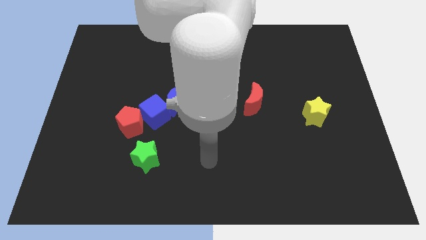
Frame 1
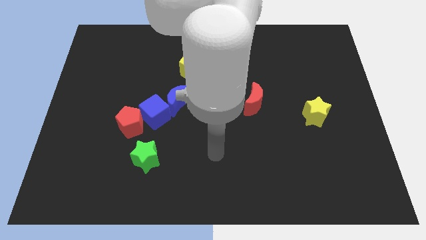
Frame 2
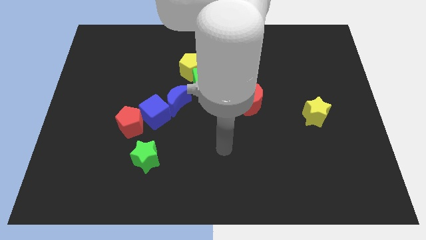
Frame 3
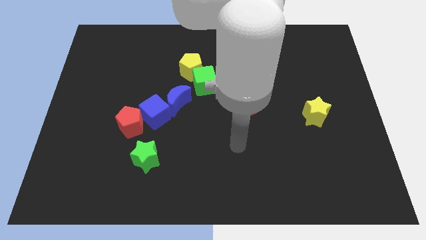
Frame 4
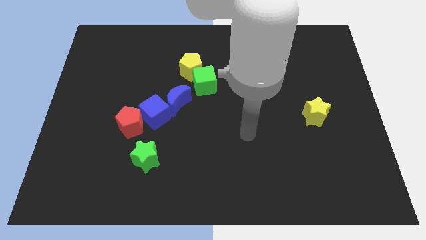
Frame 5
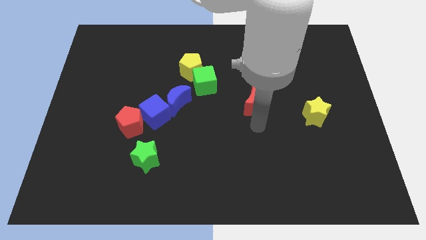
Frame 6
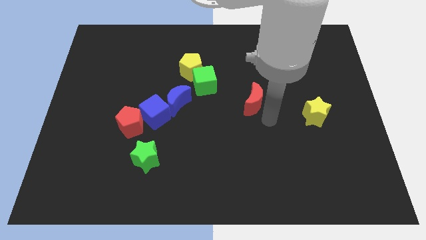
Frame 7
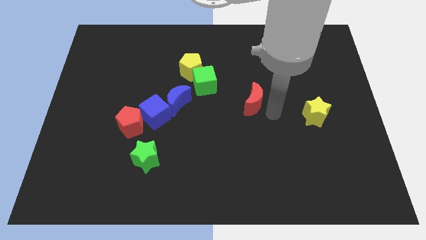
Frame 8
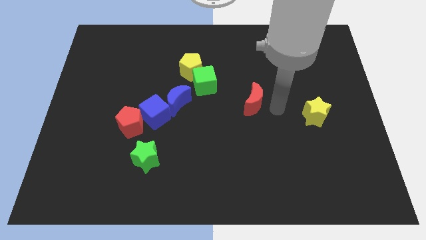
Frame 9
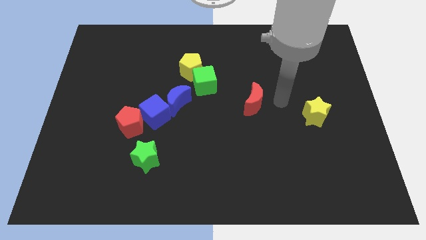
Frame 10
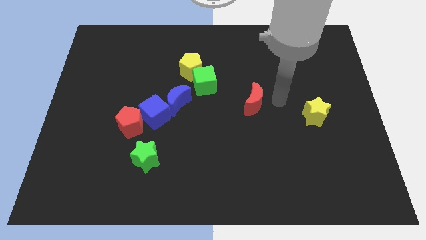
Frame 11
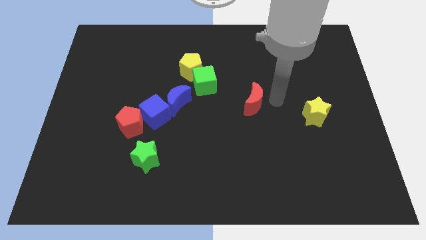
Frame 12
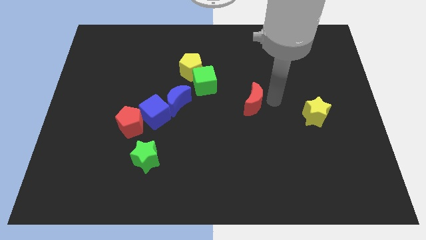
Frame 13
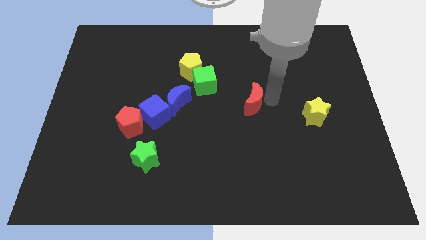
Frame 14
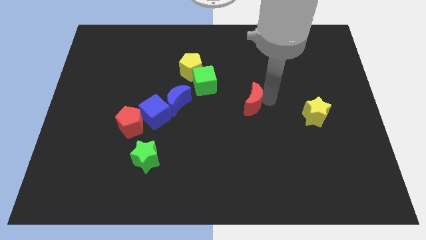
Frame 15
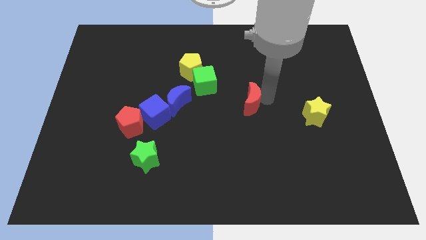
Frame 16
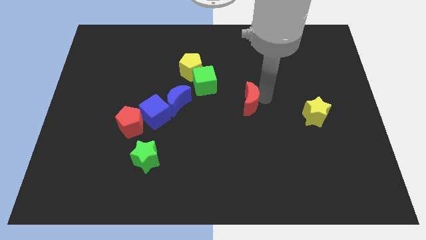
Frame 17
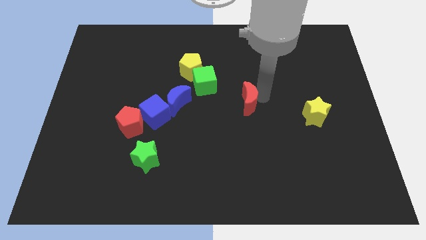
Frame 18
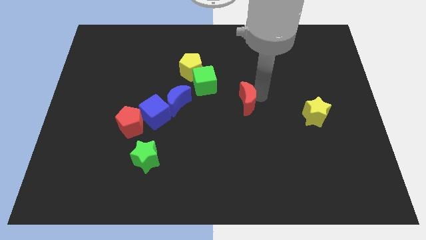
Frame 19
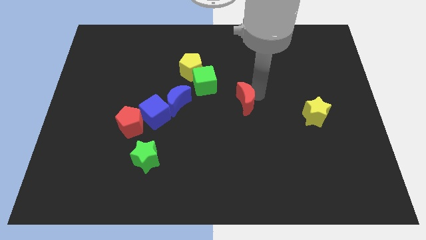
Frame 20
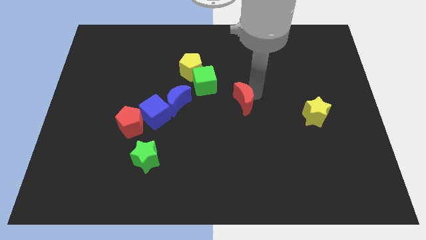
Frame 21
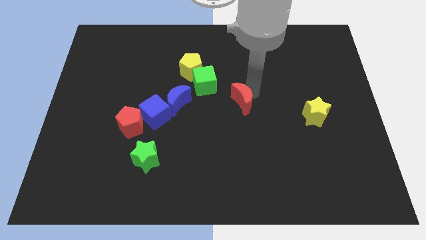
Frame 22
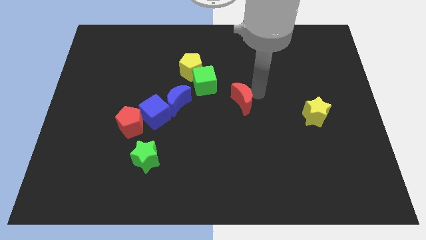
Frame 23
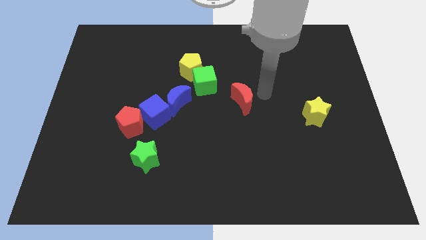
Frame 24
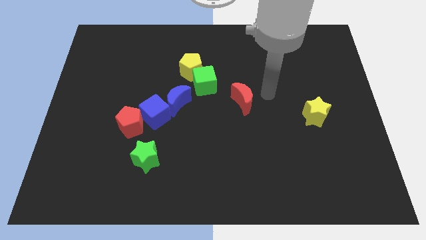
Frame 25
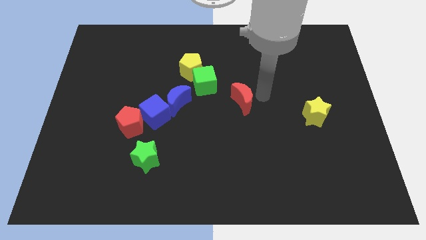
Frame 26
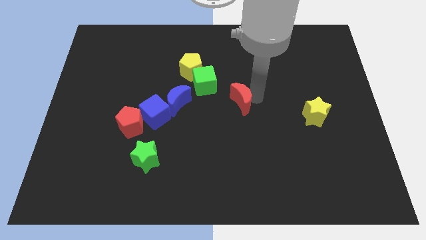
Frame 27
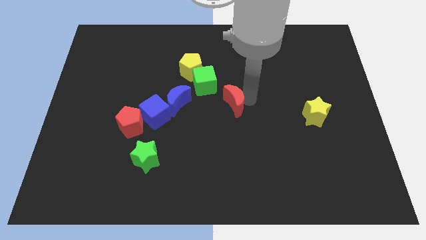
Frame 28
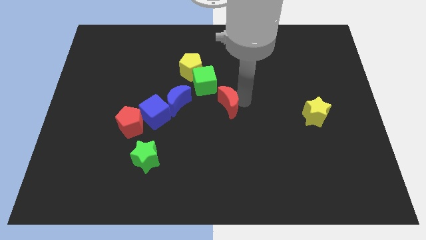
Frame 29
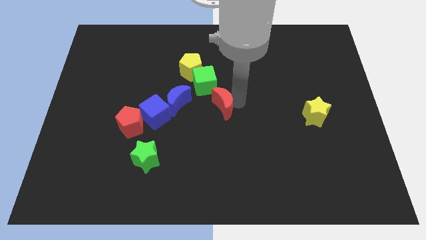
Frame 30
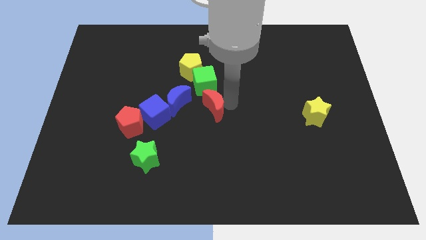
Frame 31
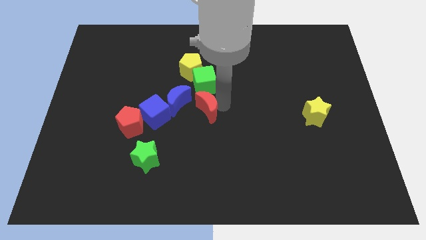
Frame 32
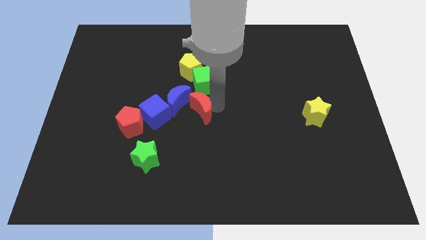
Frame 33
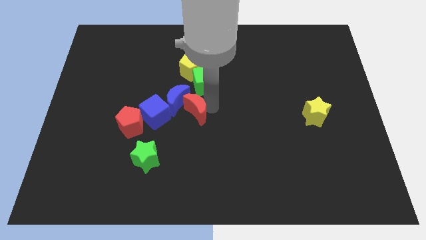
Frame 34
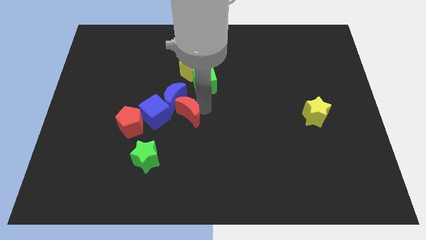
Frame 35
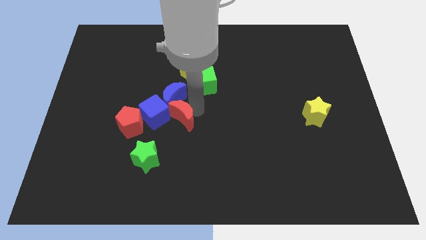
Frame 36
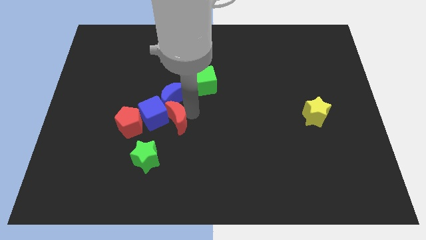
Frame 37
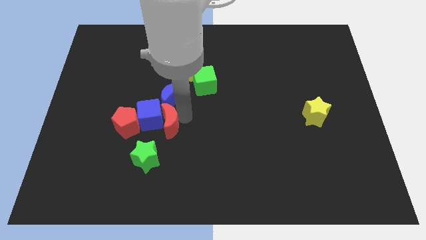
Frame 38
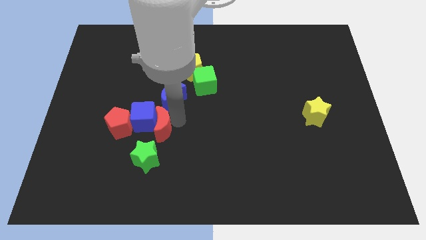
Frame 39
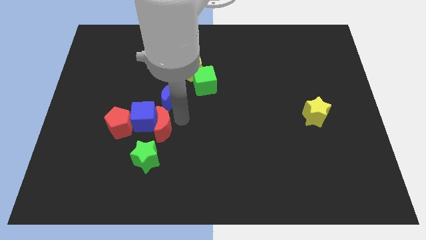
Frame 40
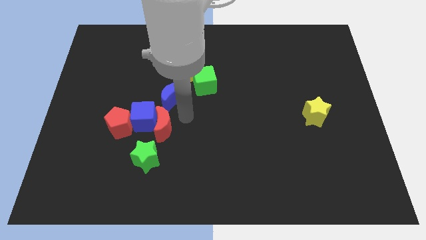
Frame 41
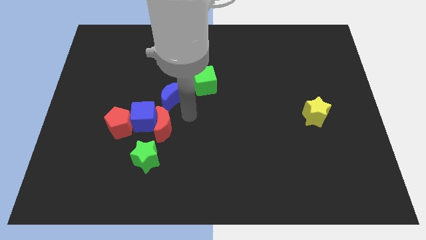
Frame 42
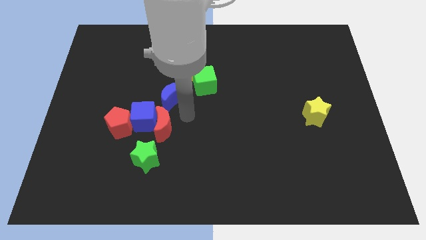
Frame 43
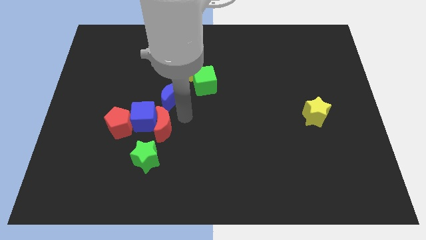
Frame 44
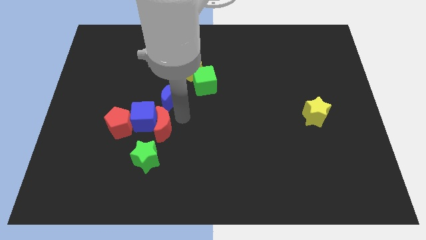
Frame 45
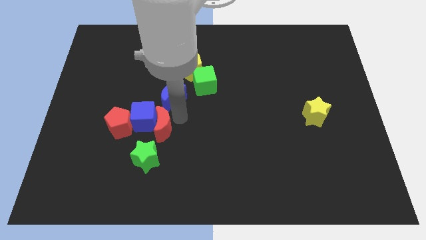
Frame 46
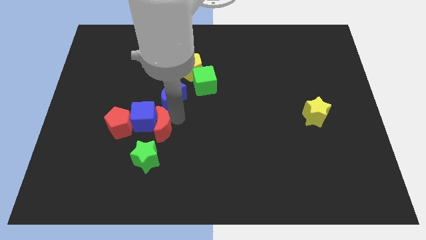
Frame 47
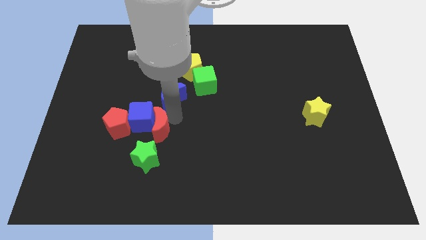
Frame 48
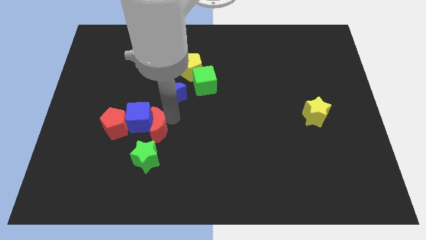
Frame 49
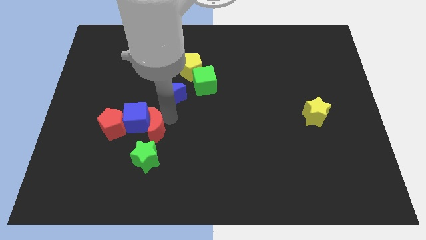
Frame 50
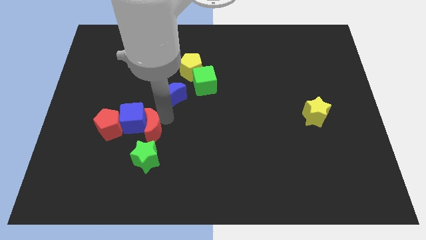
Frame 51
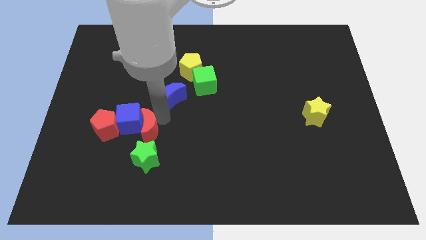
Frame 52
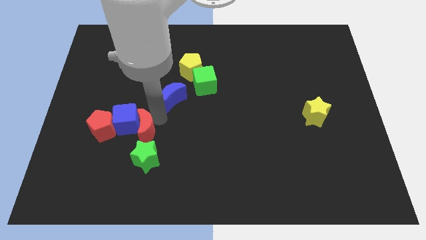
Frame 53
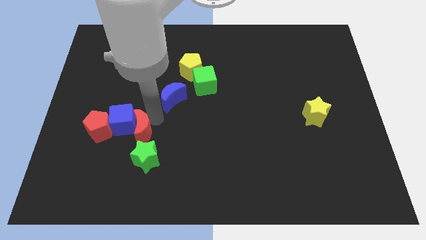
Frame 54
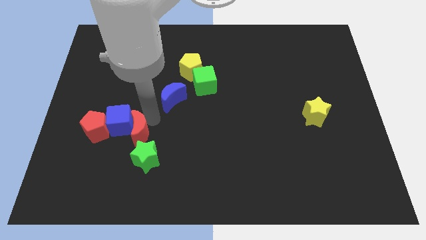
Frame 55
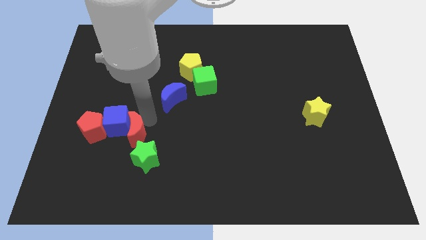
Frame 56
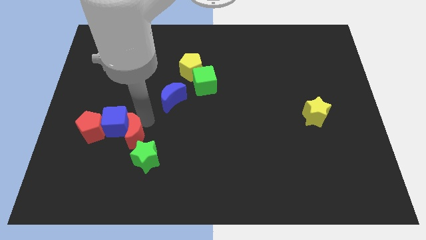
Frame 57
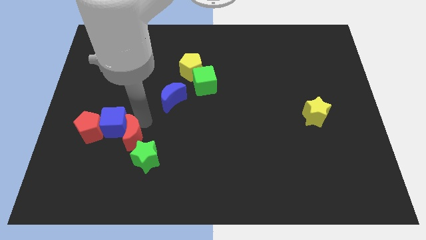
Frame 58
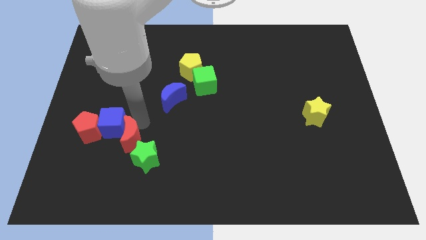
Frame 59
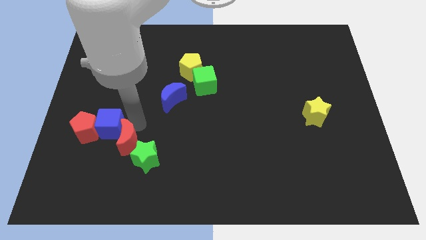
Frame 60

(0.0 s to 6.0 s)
slide the red moon left of the green star

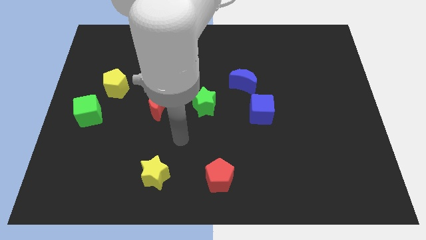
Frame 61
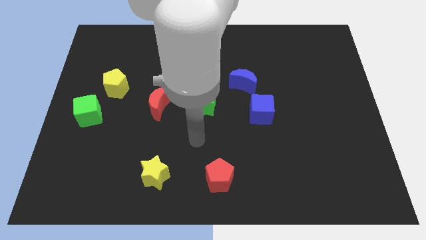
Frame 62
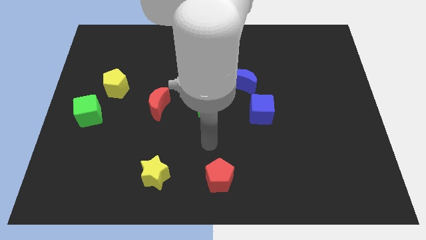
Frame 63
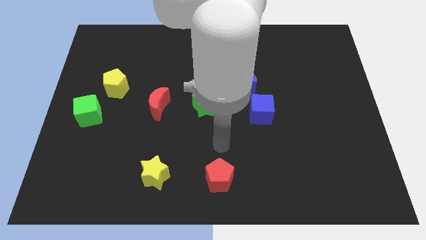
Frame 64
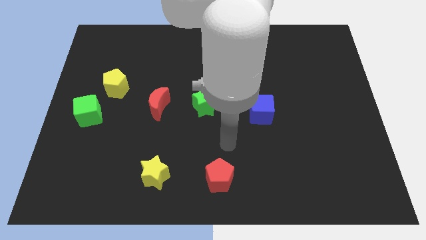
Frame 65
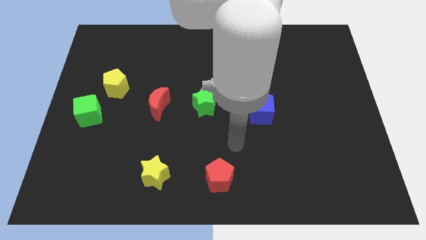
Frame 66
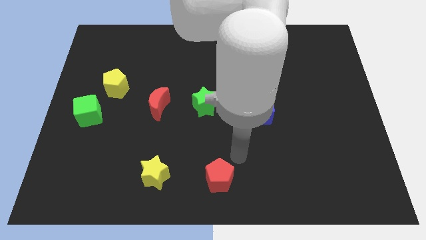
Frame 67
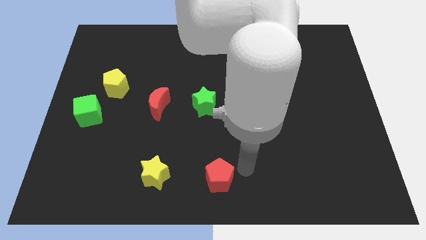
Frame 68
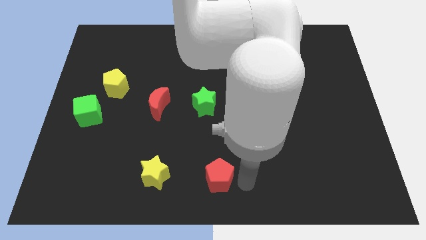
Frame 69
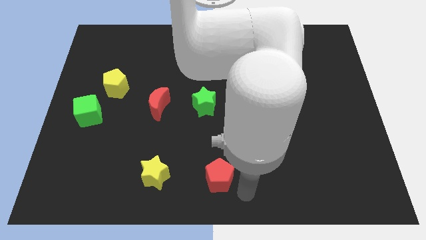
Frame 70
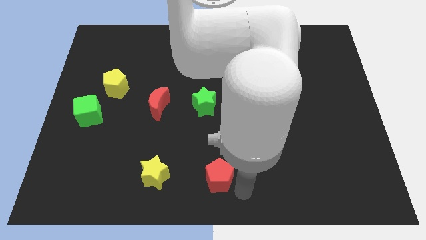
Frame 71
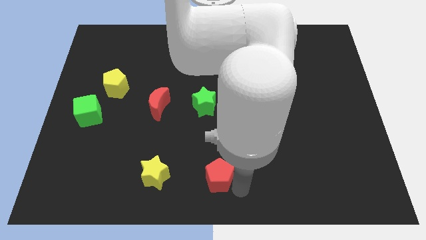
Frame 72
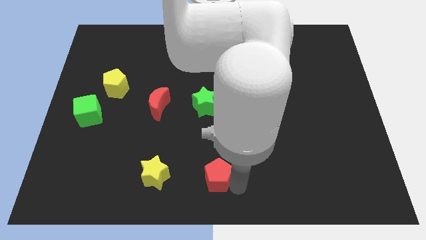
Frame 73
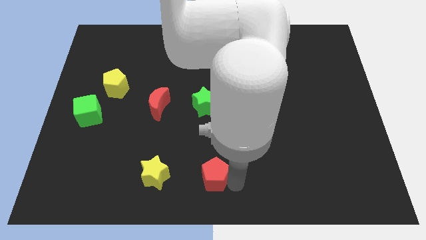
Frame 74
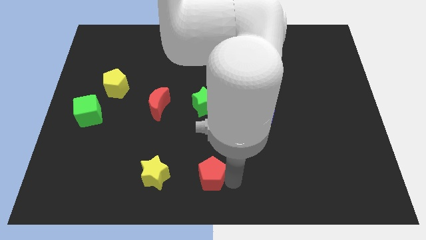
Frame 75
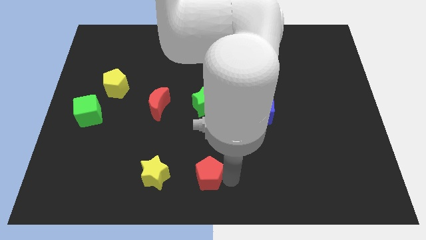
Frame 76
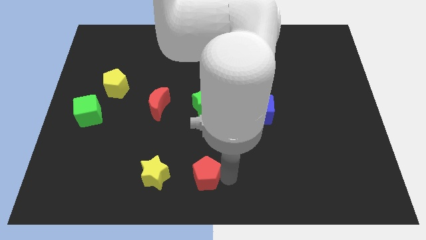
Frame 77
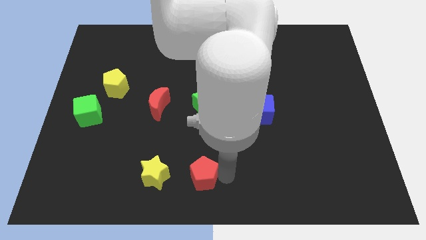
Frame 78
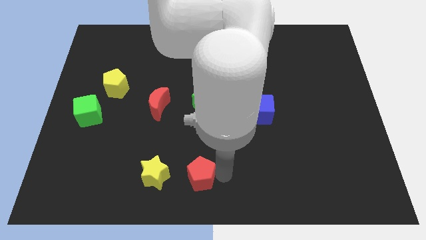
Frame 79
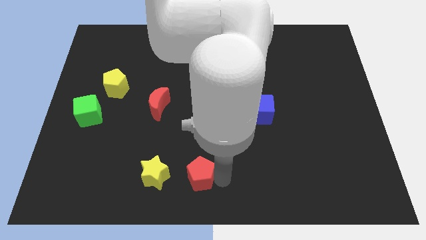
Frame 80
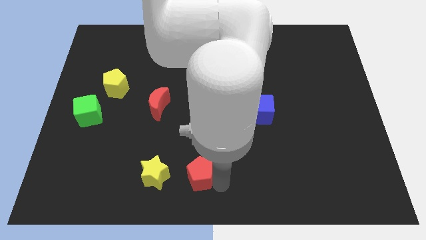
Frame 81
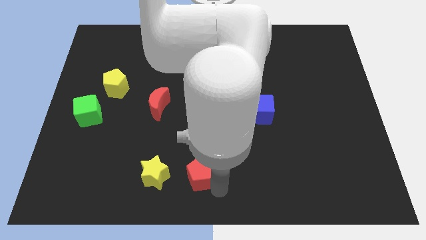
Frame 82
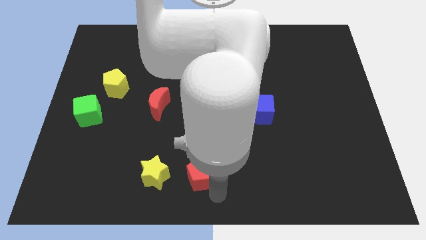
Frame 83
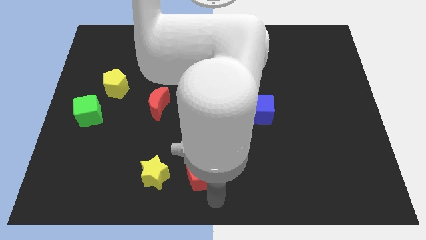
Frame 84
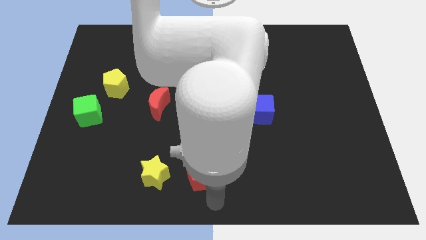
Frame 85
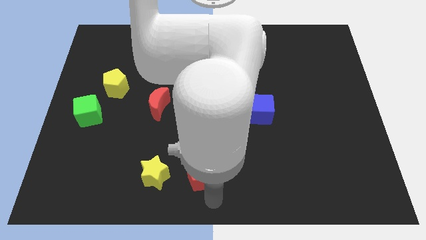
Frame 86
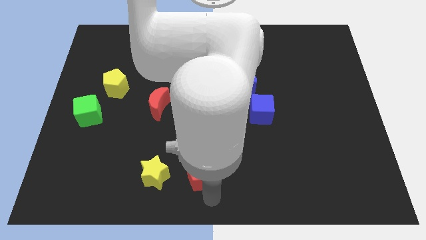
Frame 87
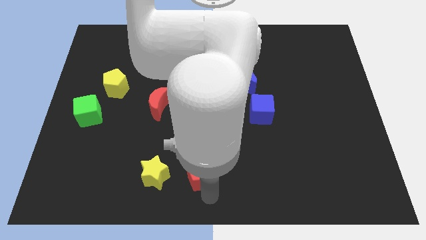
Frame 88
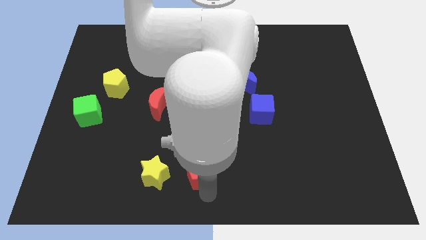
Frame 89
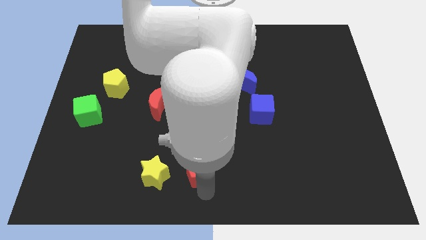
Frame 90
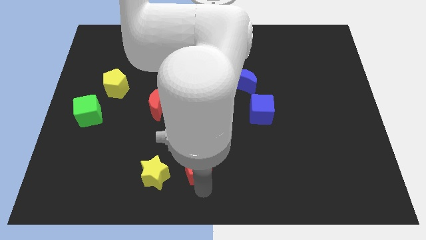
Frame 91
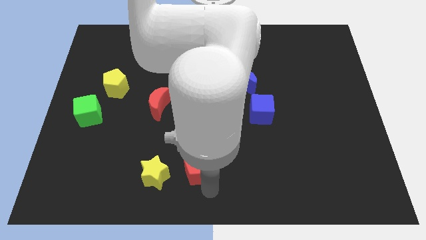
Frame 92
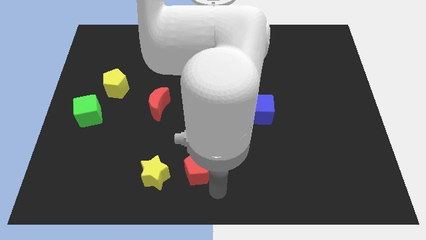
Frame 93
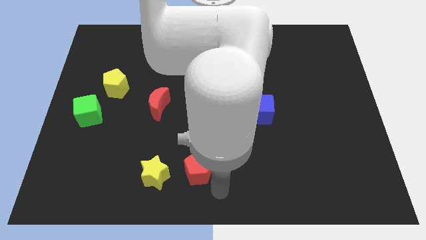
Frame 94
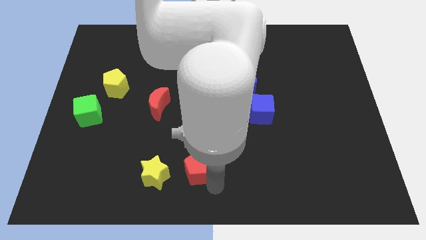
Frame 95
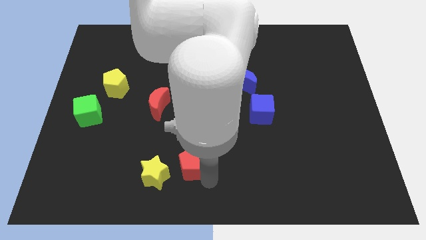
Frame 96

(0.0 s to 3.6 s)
slide the red pentagon to the top right of the yellow star
